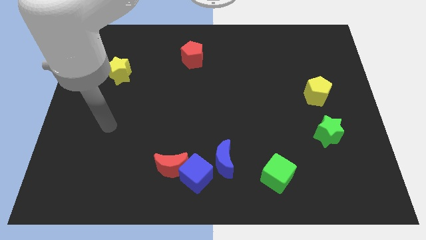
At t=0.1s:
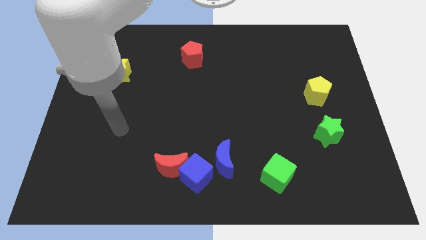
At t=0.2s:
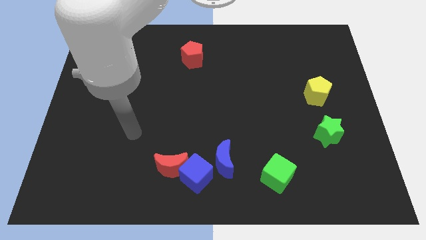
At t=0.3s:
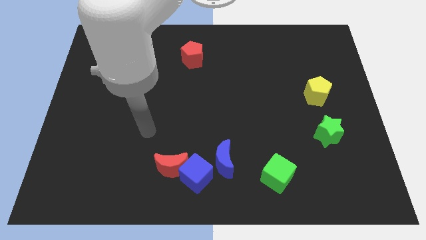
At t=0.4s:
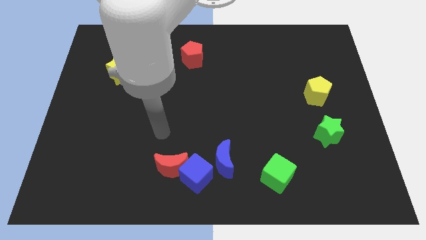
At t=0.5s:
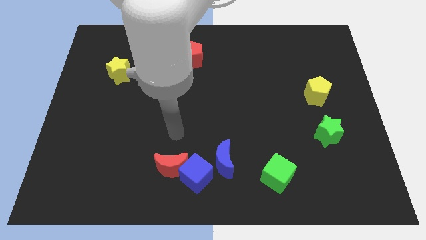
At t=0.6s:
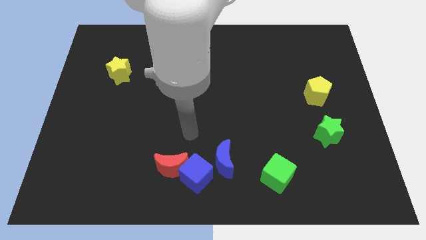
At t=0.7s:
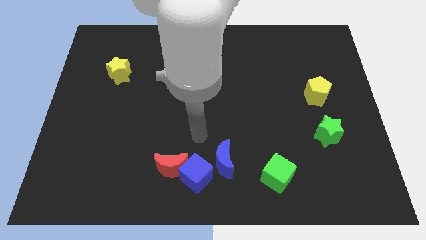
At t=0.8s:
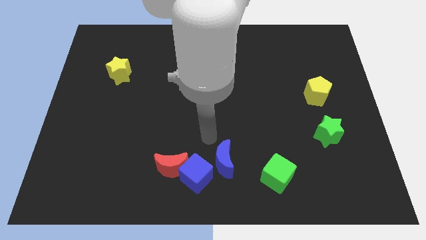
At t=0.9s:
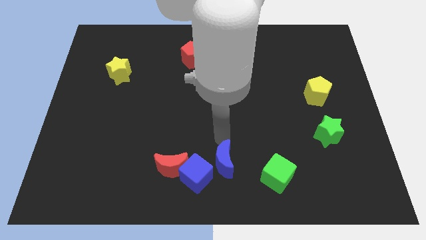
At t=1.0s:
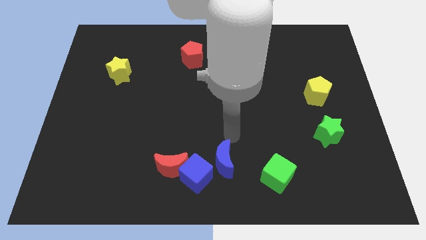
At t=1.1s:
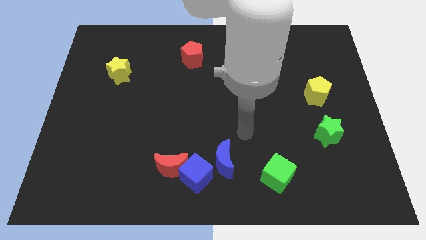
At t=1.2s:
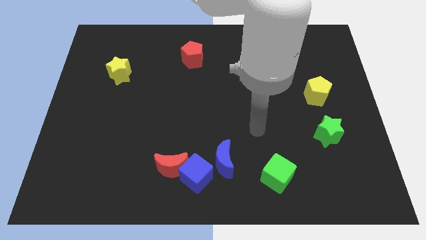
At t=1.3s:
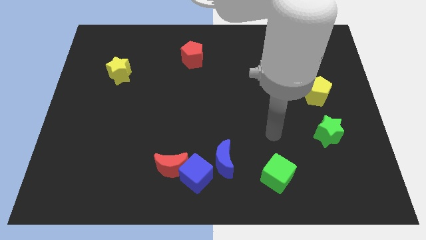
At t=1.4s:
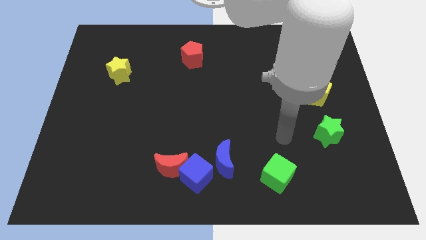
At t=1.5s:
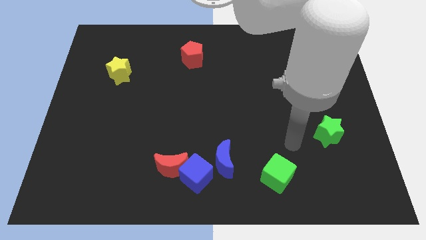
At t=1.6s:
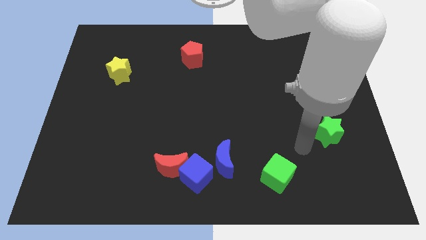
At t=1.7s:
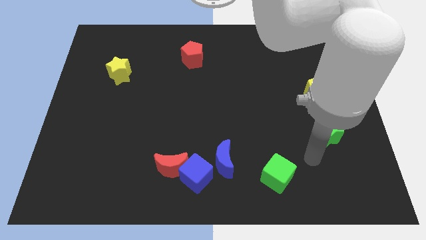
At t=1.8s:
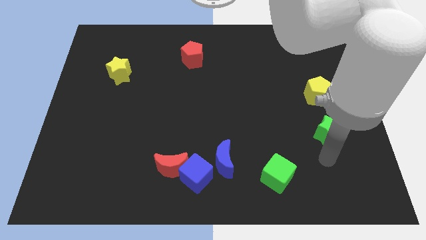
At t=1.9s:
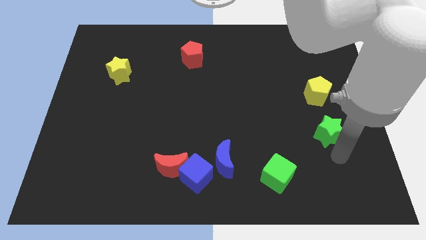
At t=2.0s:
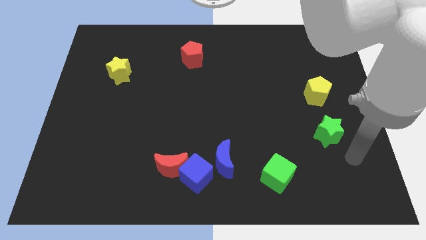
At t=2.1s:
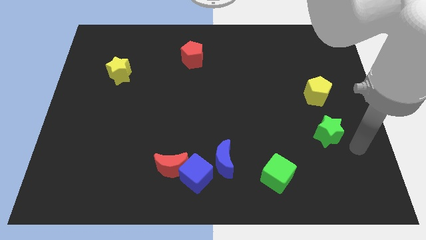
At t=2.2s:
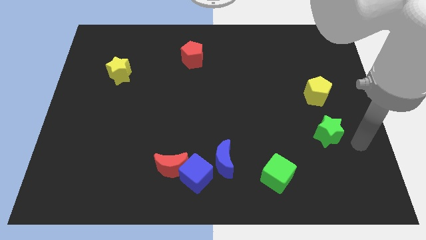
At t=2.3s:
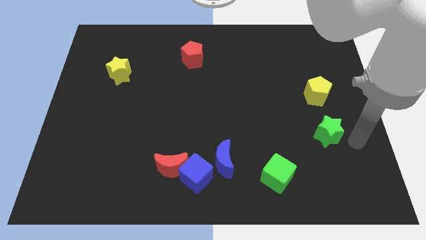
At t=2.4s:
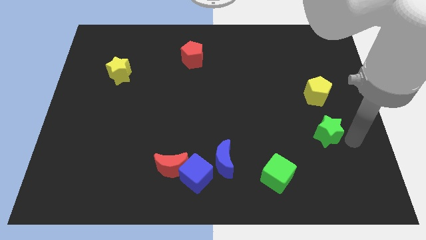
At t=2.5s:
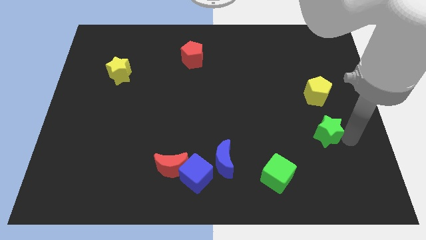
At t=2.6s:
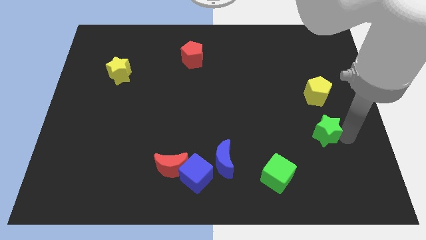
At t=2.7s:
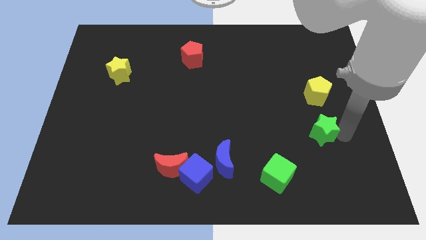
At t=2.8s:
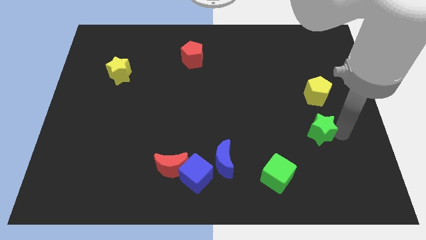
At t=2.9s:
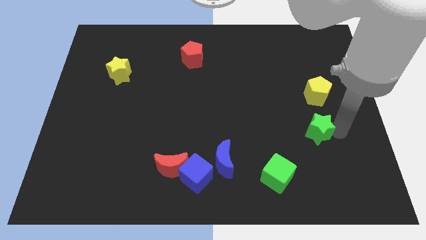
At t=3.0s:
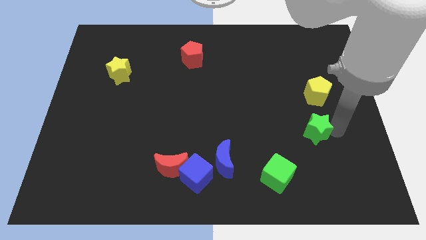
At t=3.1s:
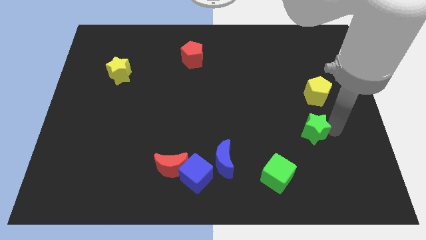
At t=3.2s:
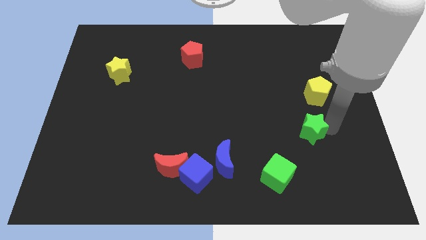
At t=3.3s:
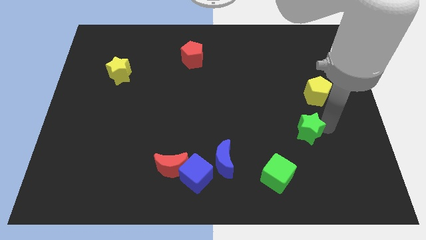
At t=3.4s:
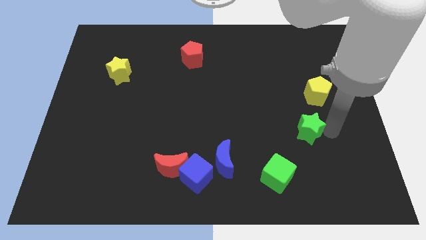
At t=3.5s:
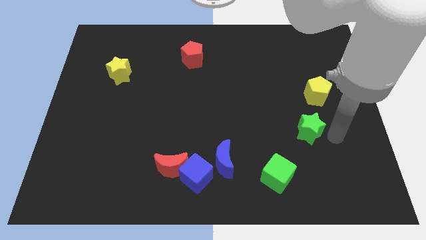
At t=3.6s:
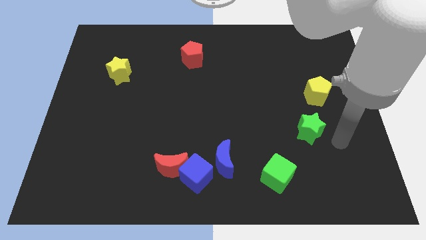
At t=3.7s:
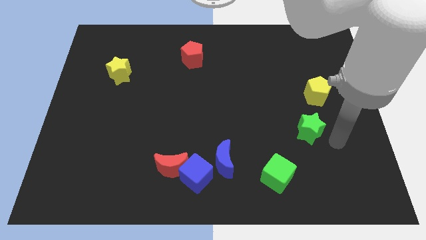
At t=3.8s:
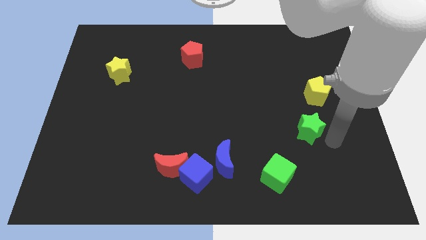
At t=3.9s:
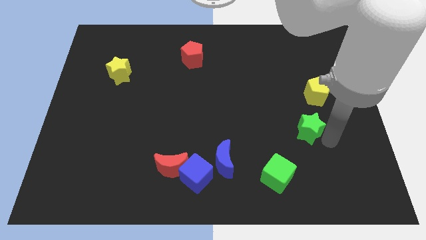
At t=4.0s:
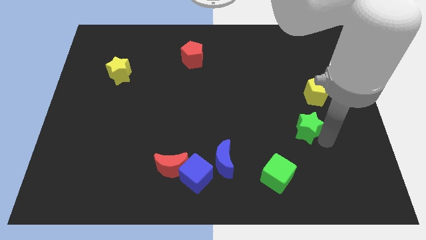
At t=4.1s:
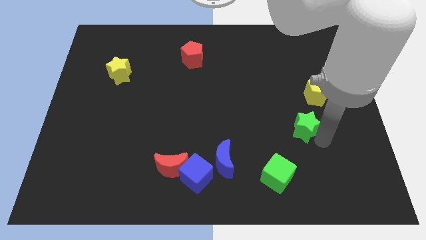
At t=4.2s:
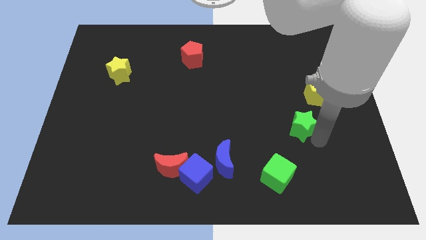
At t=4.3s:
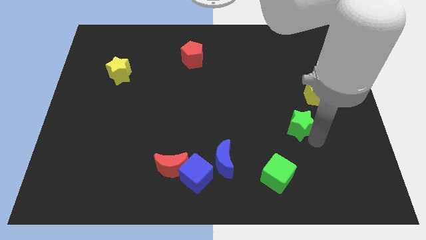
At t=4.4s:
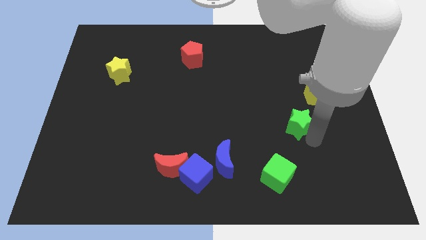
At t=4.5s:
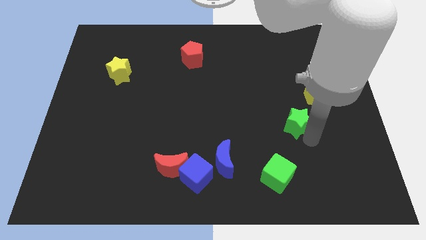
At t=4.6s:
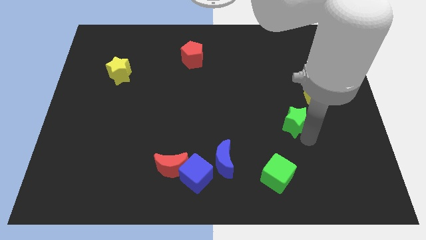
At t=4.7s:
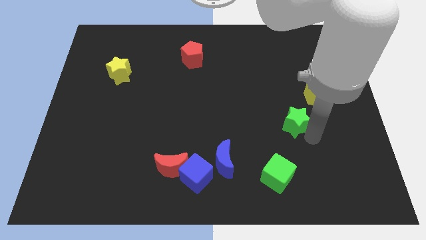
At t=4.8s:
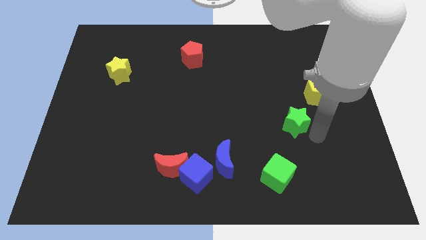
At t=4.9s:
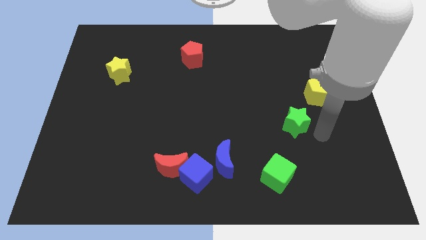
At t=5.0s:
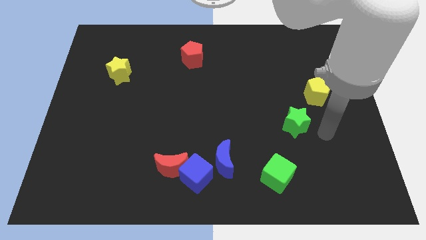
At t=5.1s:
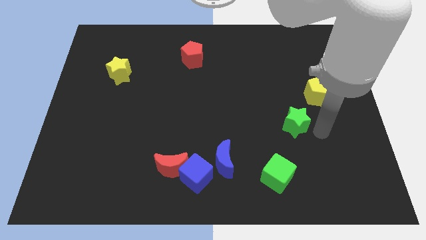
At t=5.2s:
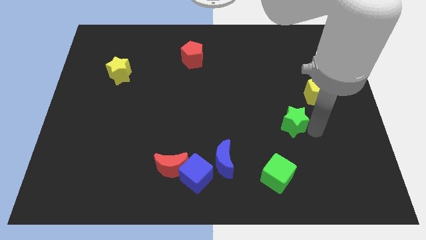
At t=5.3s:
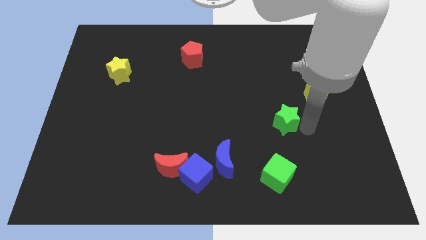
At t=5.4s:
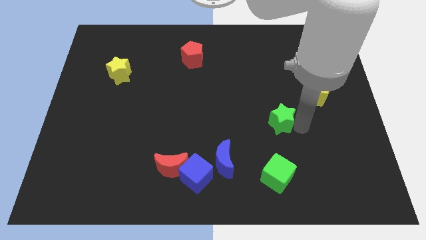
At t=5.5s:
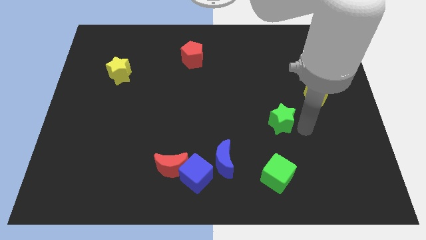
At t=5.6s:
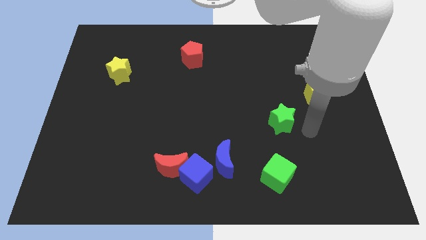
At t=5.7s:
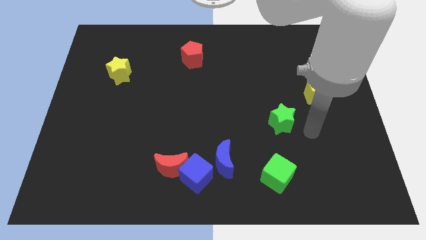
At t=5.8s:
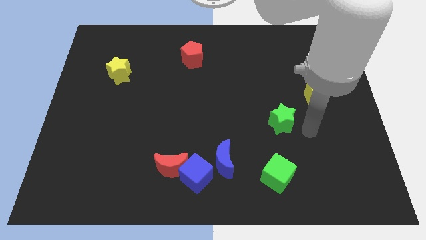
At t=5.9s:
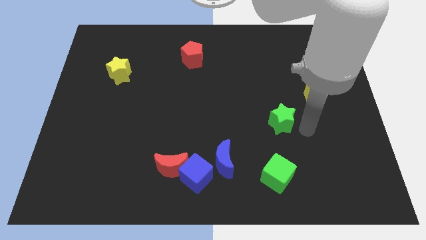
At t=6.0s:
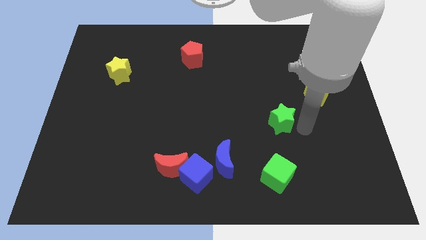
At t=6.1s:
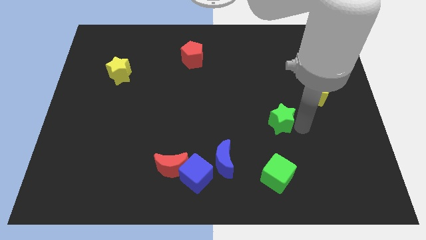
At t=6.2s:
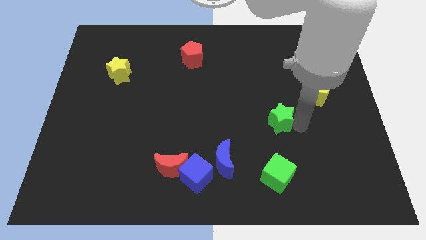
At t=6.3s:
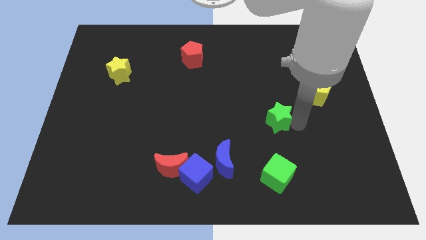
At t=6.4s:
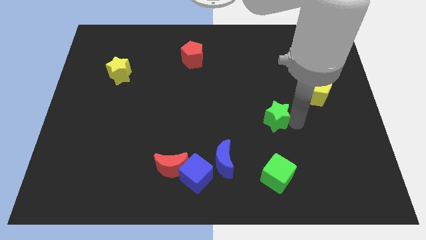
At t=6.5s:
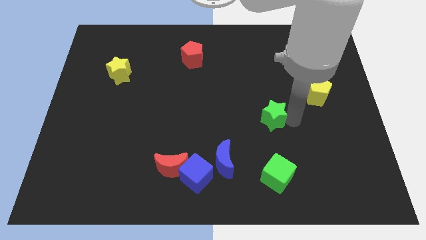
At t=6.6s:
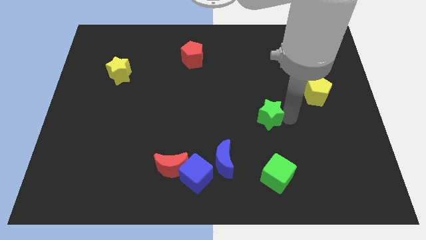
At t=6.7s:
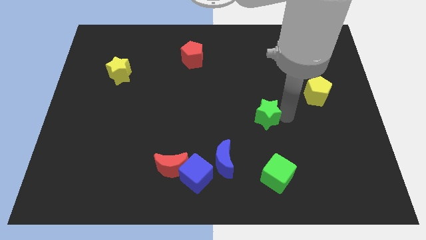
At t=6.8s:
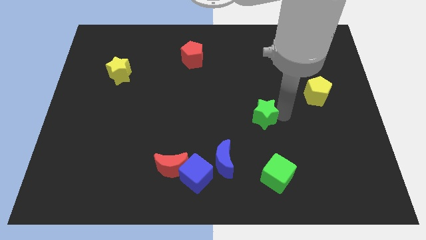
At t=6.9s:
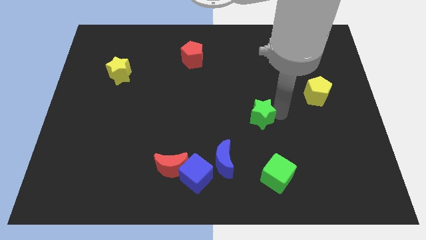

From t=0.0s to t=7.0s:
slide the green star to the center of the board
